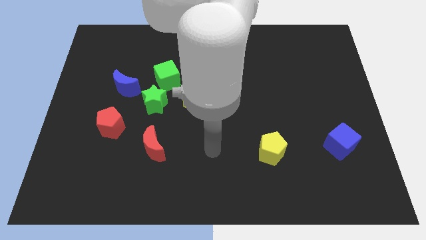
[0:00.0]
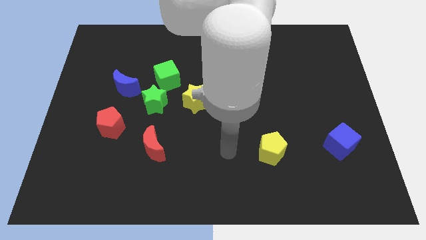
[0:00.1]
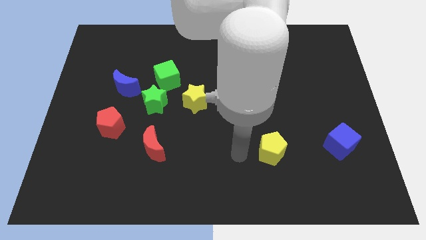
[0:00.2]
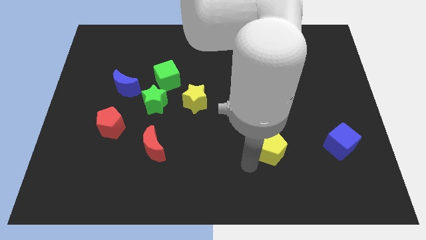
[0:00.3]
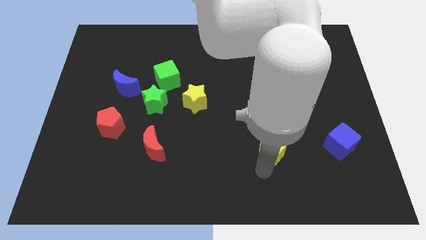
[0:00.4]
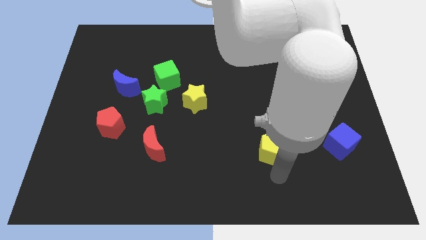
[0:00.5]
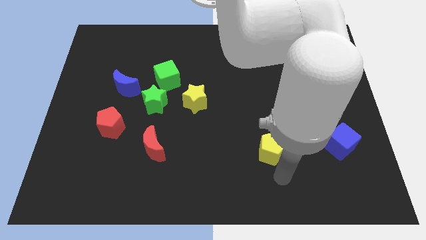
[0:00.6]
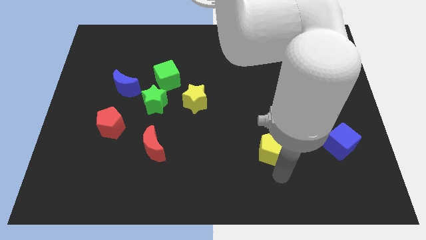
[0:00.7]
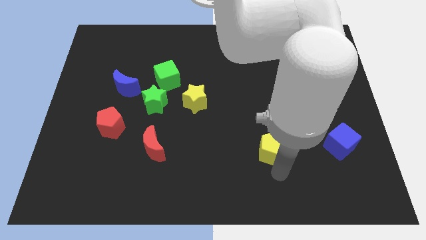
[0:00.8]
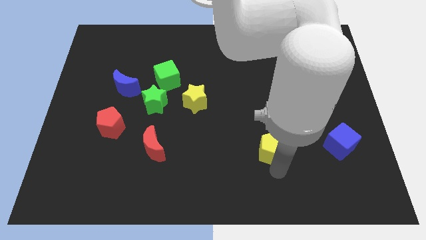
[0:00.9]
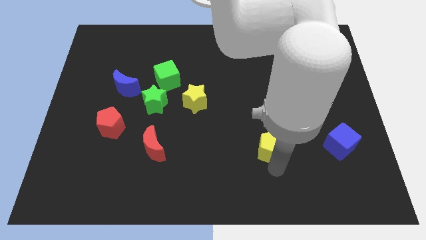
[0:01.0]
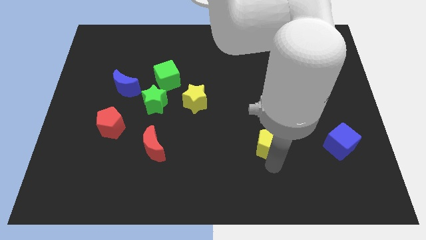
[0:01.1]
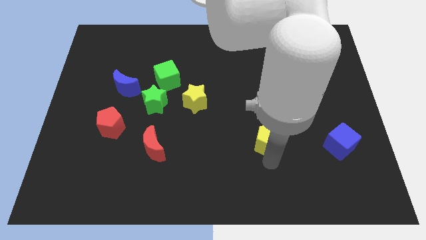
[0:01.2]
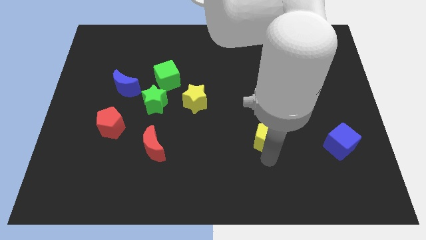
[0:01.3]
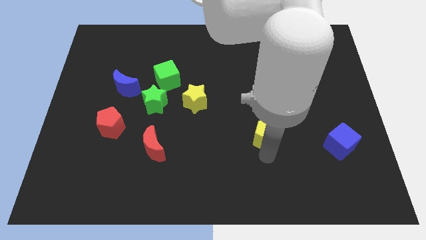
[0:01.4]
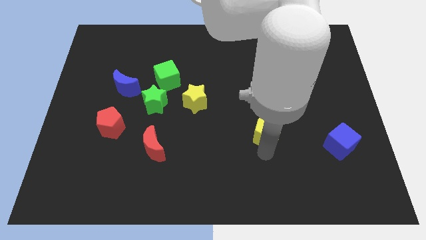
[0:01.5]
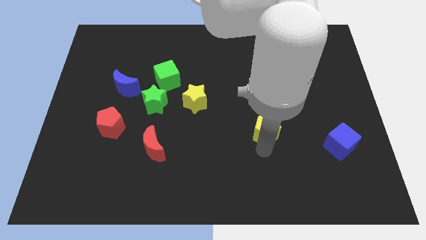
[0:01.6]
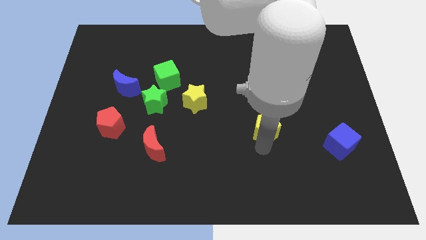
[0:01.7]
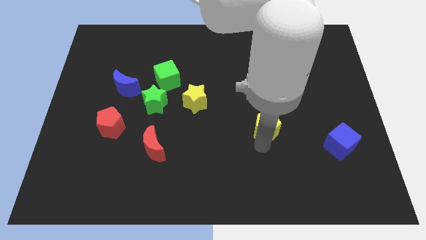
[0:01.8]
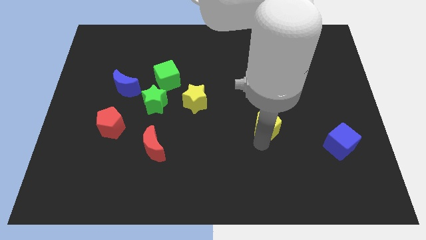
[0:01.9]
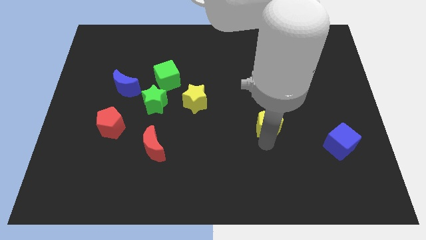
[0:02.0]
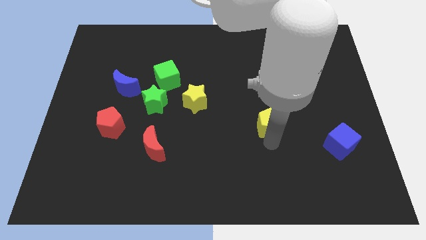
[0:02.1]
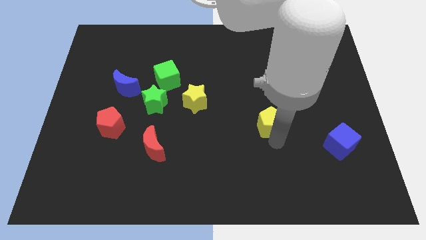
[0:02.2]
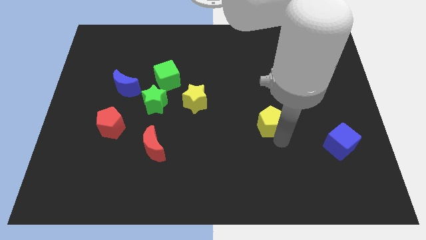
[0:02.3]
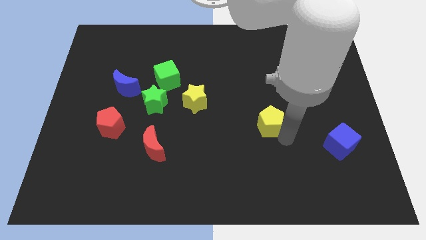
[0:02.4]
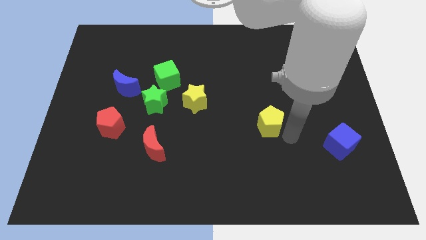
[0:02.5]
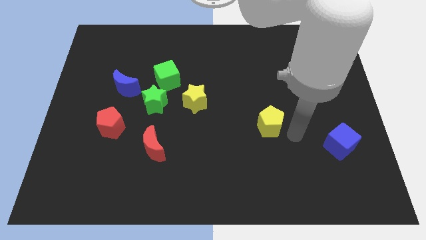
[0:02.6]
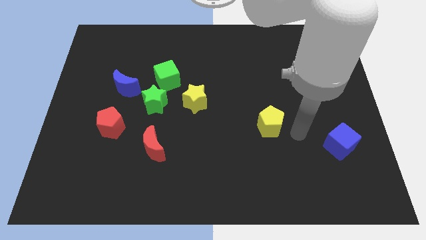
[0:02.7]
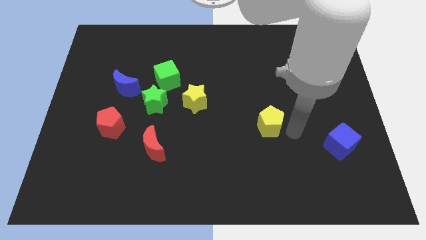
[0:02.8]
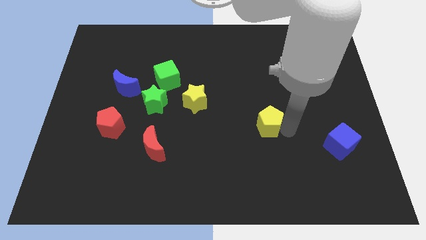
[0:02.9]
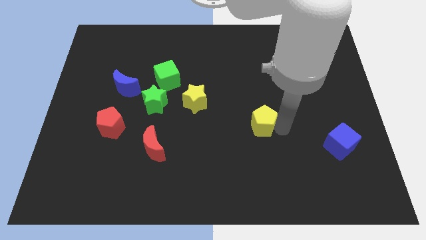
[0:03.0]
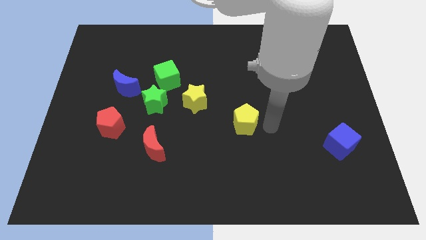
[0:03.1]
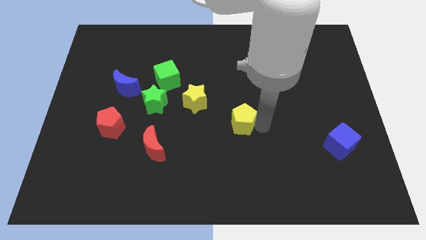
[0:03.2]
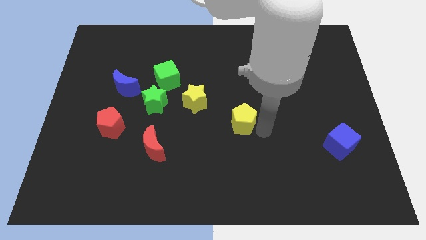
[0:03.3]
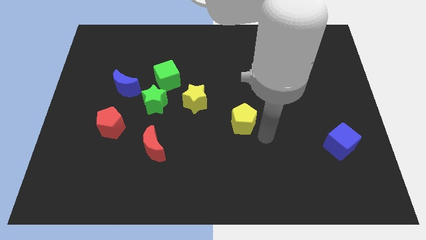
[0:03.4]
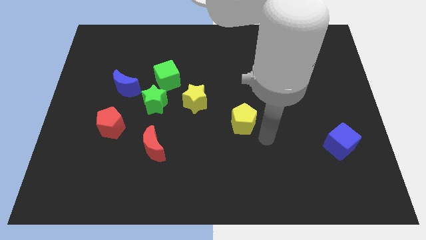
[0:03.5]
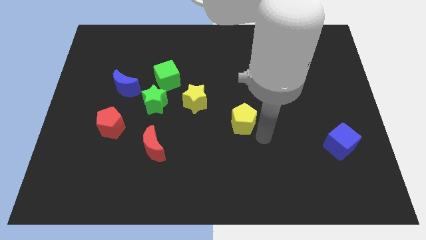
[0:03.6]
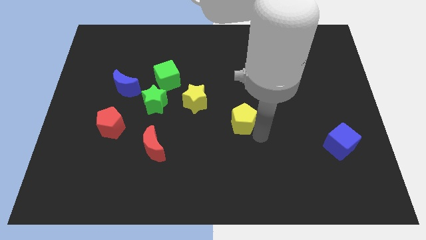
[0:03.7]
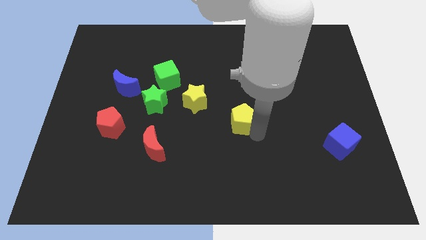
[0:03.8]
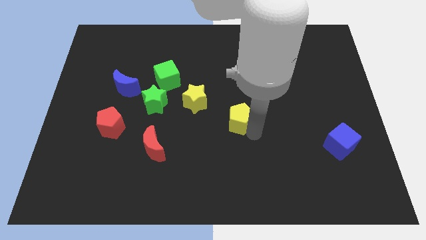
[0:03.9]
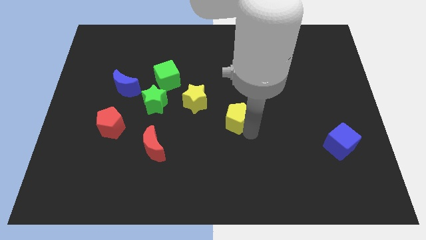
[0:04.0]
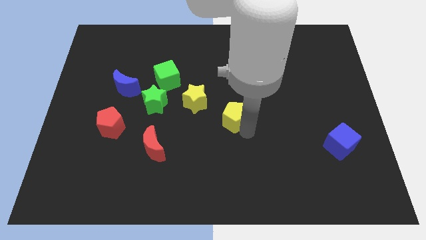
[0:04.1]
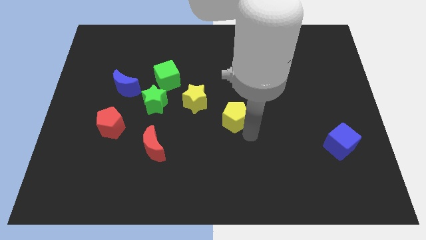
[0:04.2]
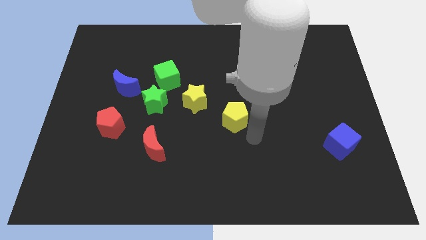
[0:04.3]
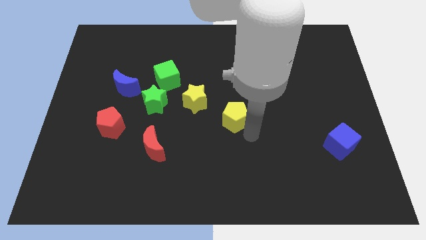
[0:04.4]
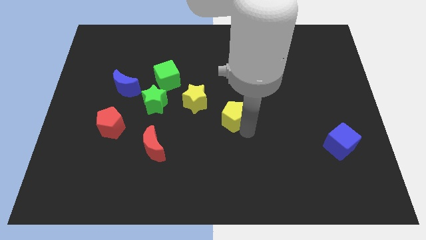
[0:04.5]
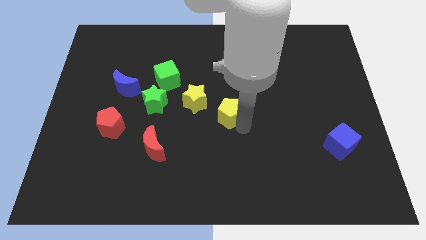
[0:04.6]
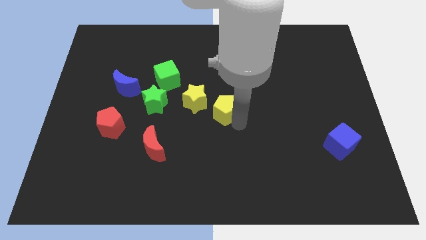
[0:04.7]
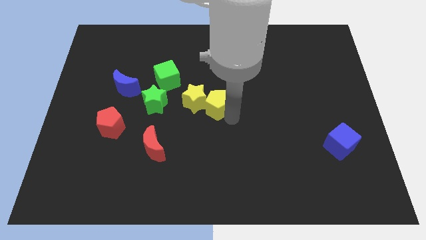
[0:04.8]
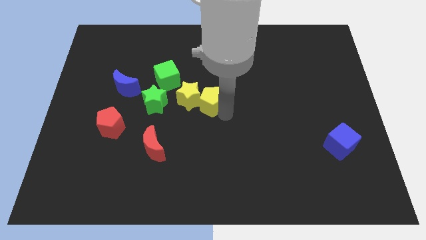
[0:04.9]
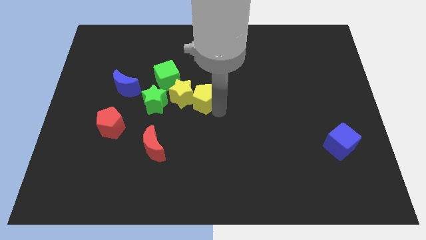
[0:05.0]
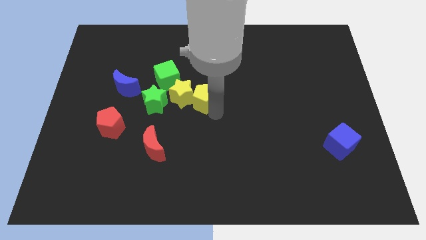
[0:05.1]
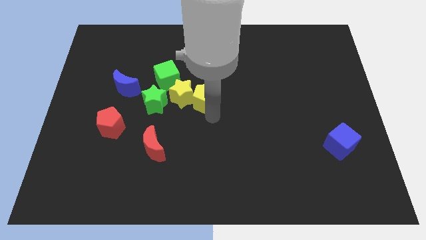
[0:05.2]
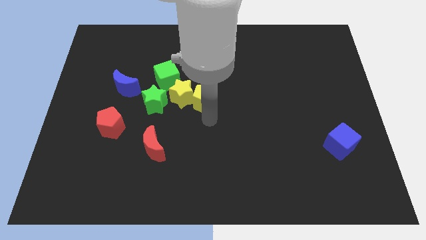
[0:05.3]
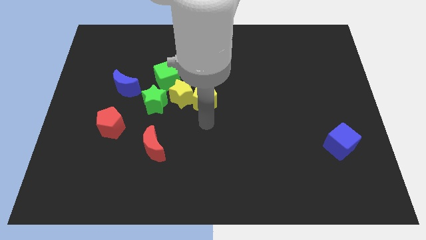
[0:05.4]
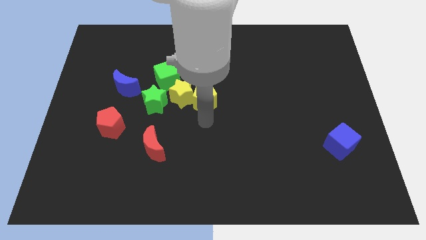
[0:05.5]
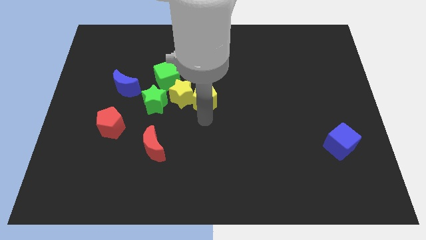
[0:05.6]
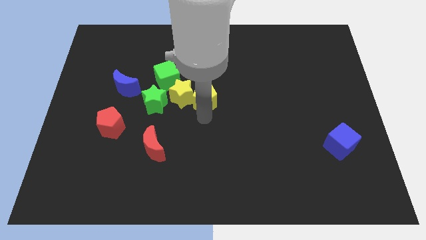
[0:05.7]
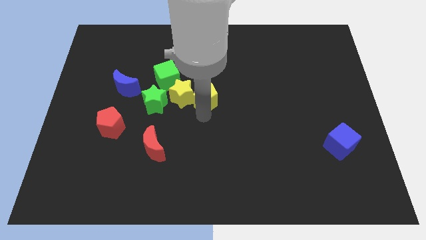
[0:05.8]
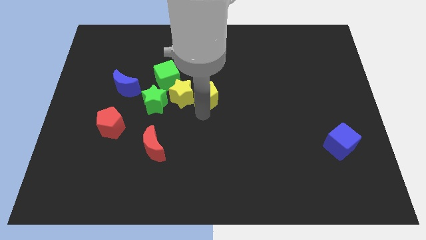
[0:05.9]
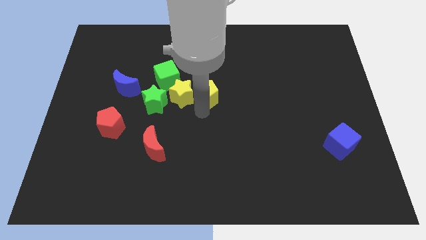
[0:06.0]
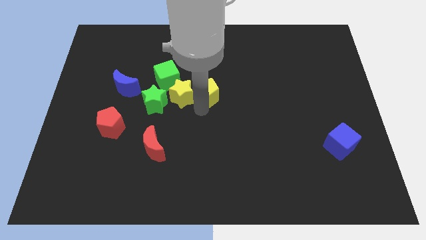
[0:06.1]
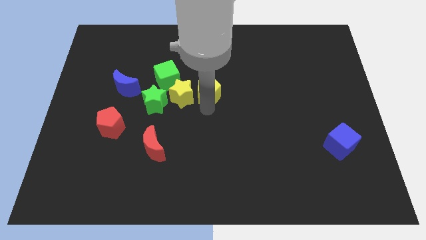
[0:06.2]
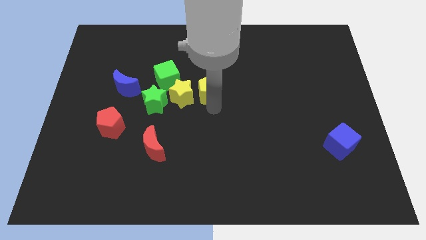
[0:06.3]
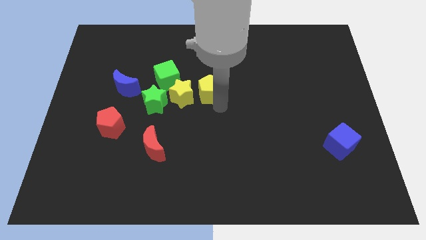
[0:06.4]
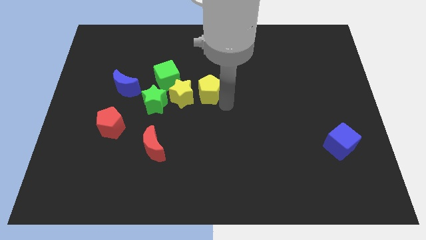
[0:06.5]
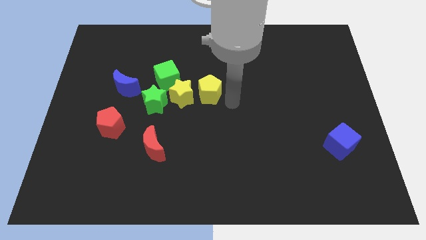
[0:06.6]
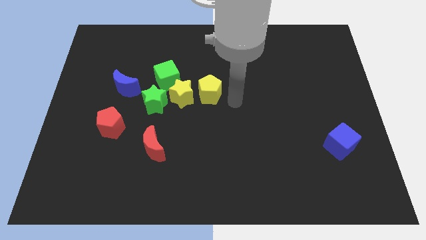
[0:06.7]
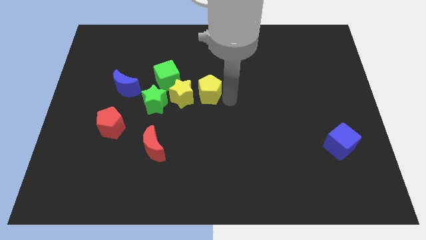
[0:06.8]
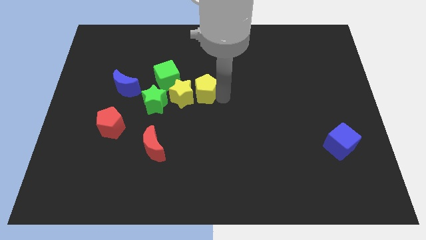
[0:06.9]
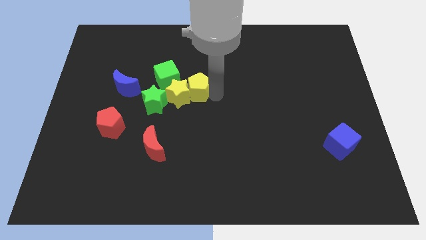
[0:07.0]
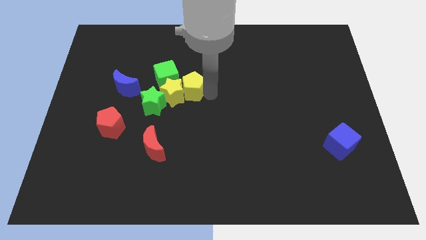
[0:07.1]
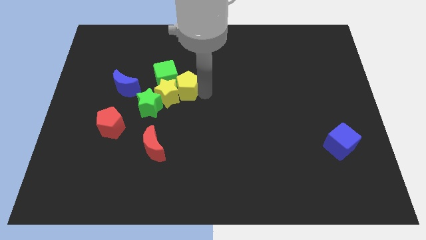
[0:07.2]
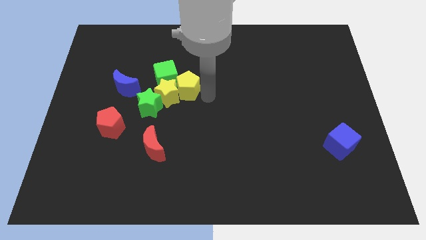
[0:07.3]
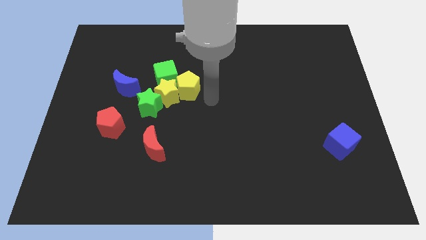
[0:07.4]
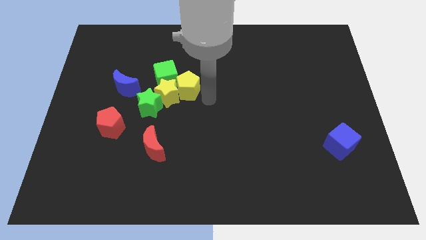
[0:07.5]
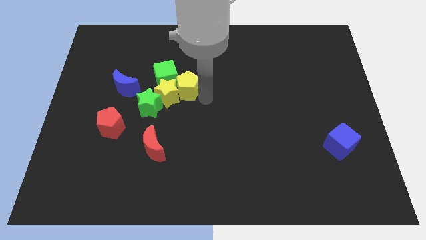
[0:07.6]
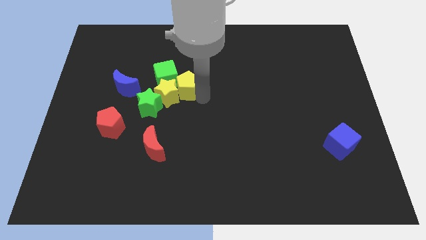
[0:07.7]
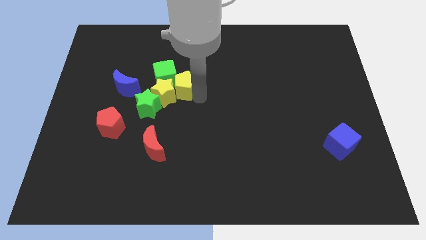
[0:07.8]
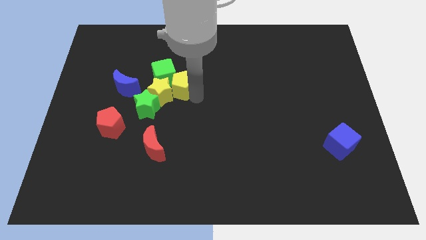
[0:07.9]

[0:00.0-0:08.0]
slide the yellow pentagon next to the green cube
